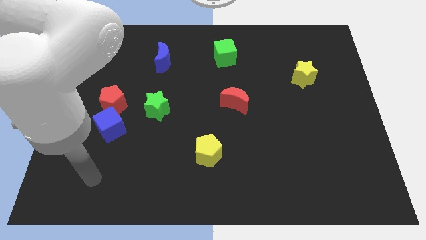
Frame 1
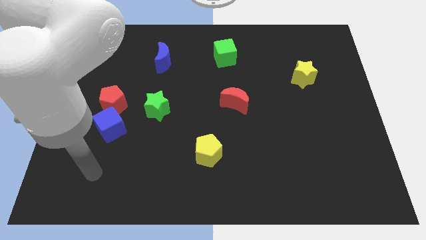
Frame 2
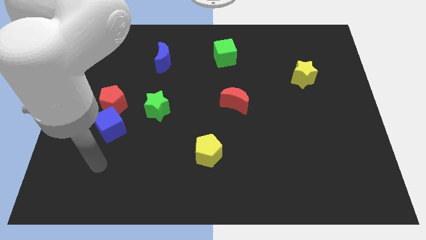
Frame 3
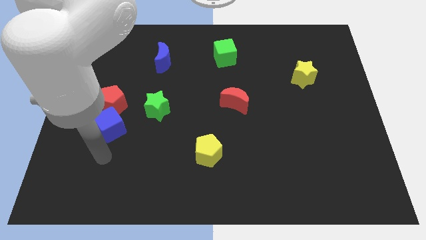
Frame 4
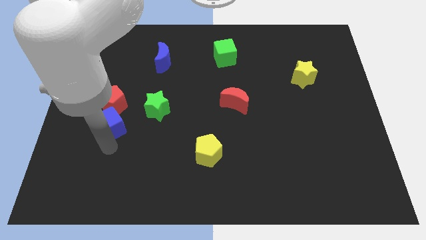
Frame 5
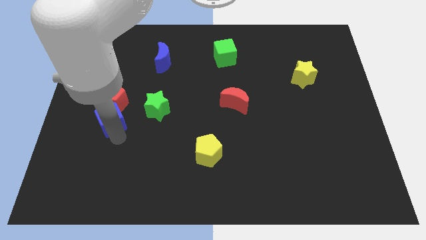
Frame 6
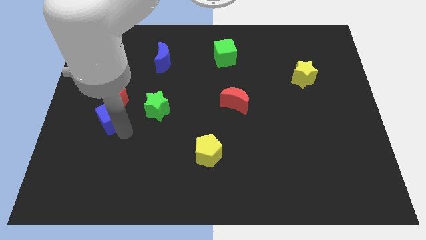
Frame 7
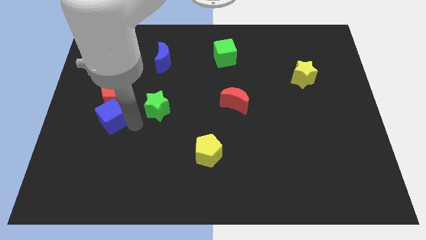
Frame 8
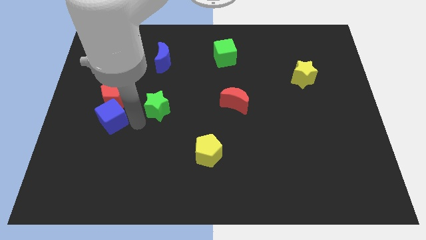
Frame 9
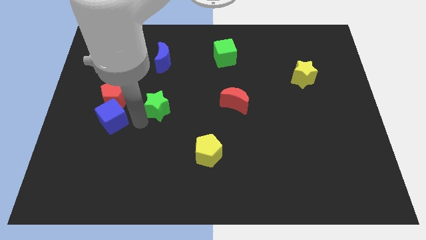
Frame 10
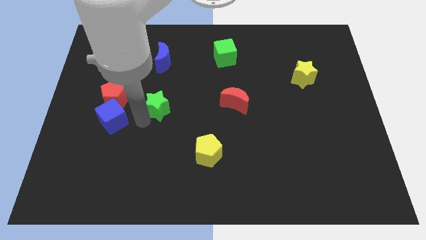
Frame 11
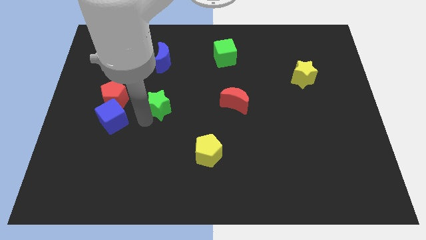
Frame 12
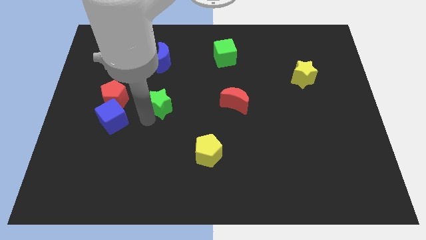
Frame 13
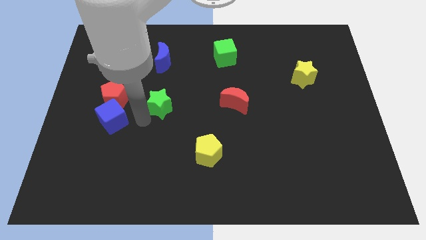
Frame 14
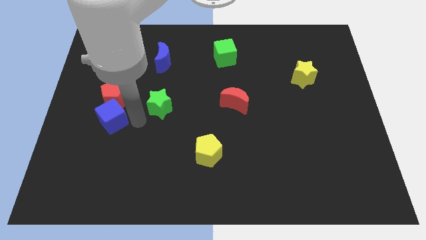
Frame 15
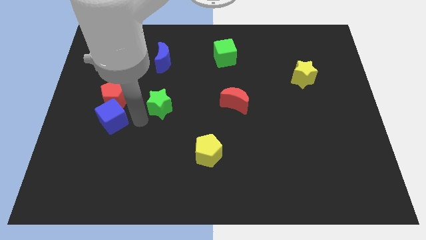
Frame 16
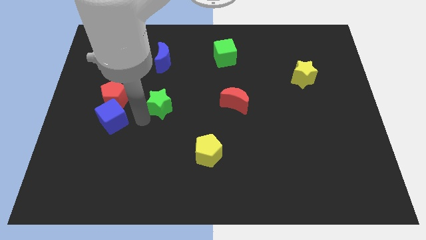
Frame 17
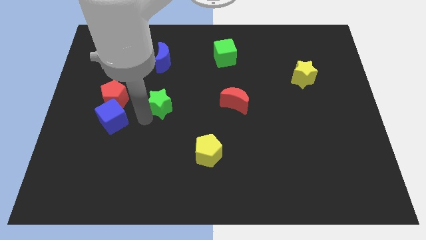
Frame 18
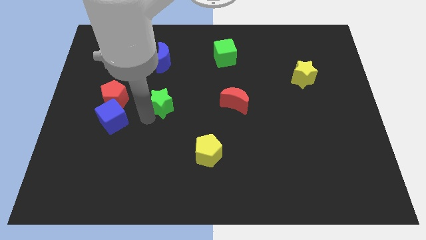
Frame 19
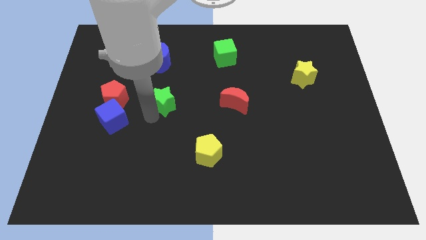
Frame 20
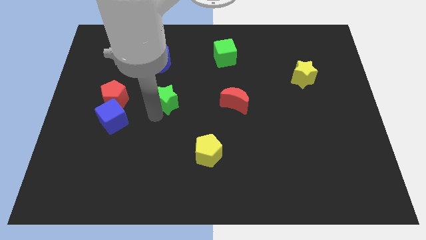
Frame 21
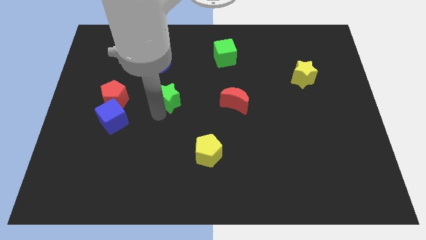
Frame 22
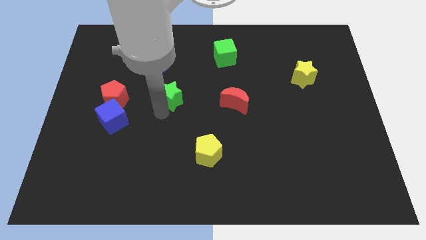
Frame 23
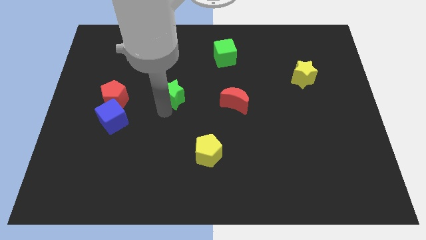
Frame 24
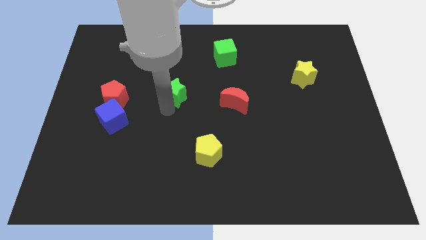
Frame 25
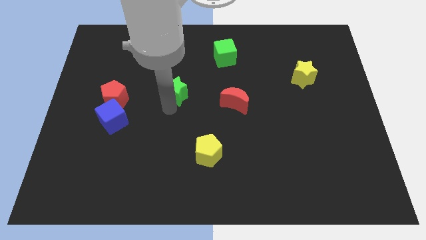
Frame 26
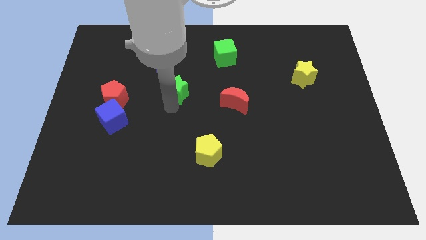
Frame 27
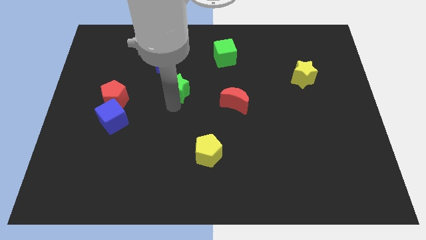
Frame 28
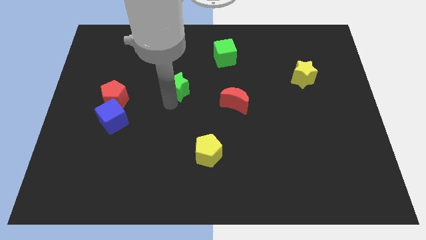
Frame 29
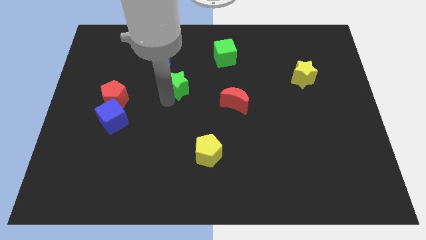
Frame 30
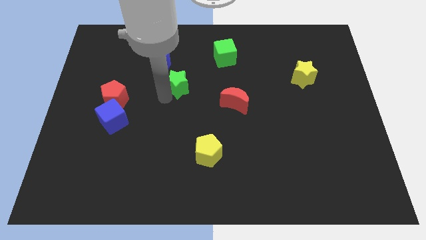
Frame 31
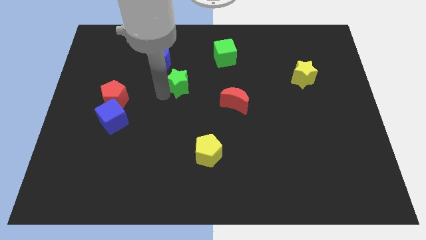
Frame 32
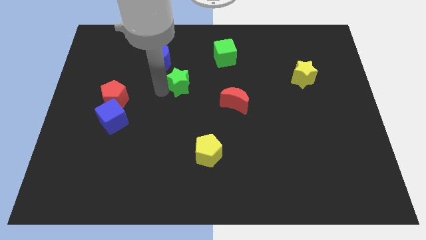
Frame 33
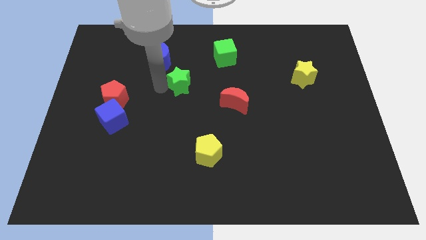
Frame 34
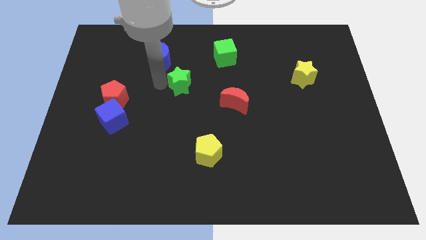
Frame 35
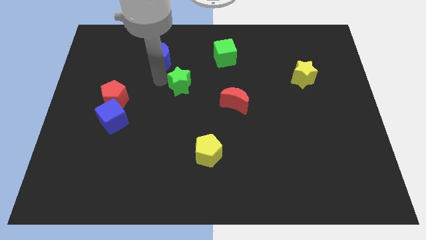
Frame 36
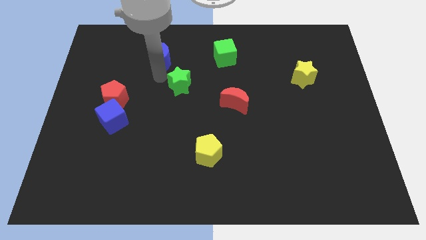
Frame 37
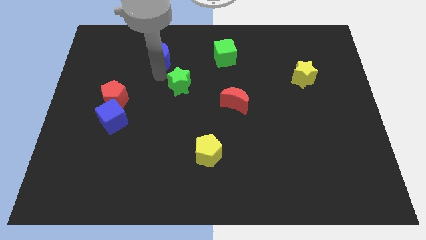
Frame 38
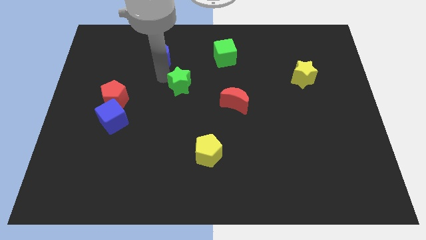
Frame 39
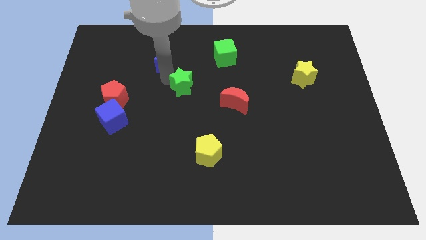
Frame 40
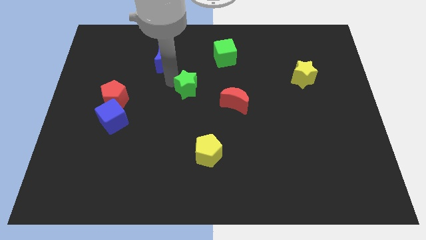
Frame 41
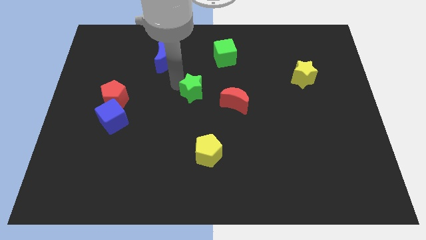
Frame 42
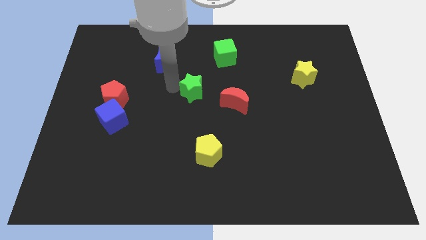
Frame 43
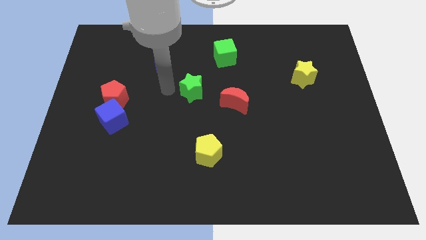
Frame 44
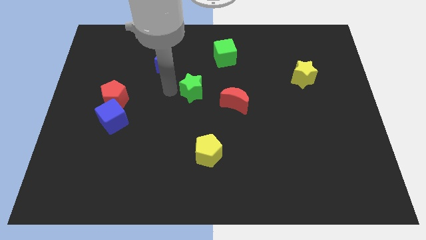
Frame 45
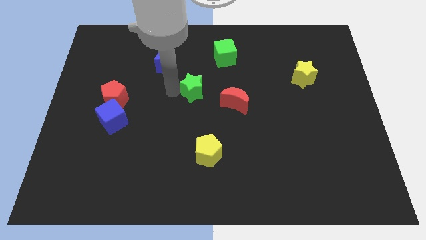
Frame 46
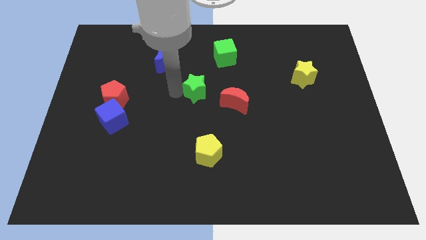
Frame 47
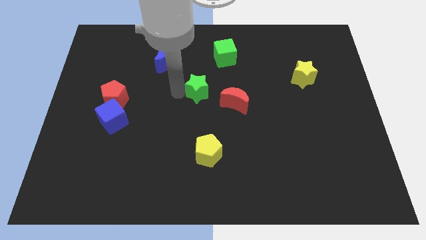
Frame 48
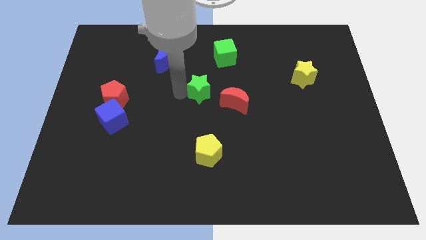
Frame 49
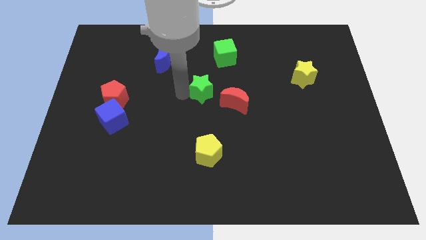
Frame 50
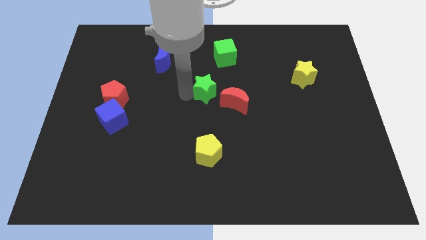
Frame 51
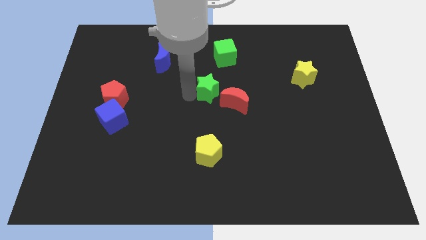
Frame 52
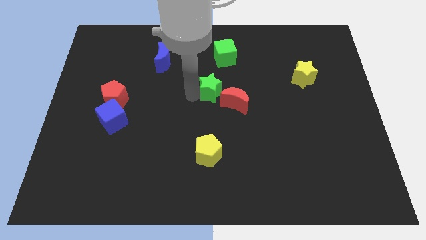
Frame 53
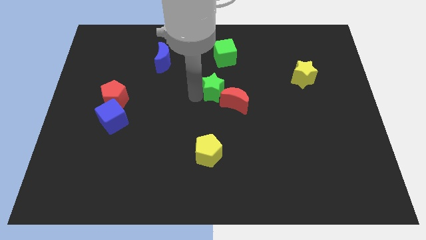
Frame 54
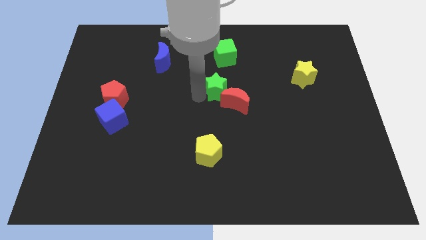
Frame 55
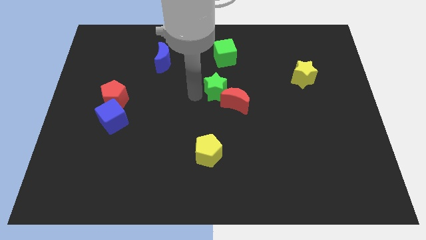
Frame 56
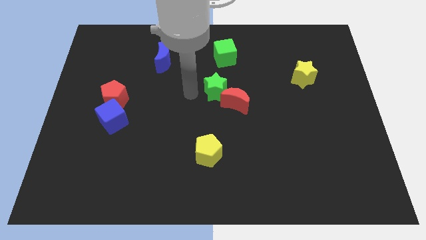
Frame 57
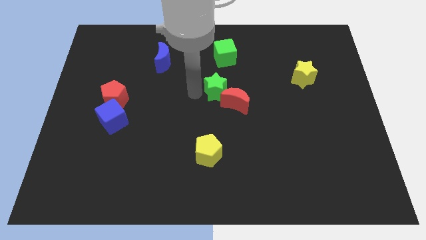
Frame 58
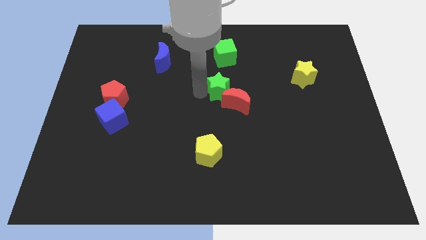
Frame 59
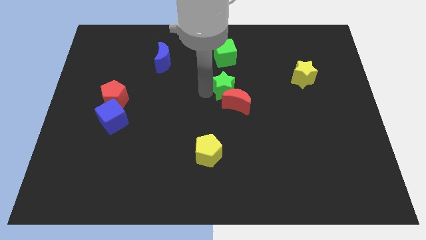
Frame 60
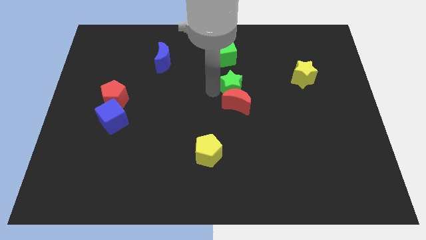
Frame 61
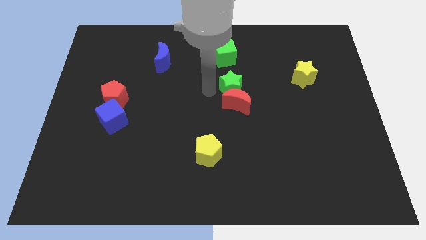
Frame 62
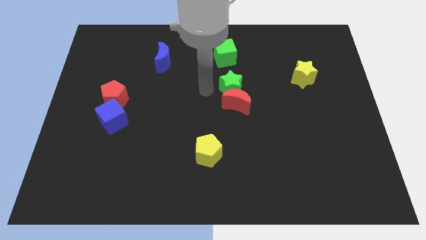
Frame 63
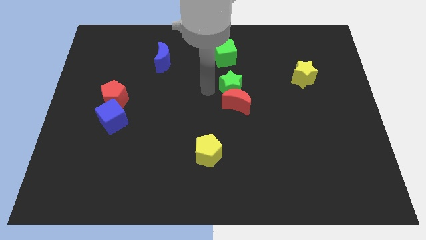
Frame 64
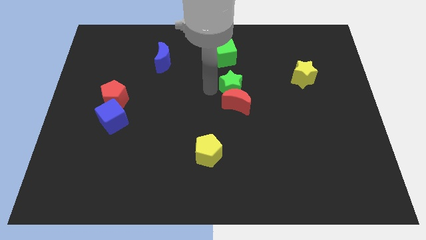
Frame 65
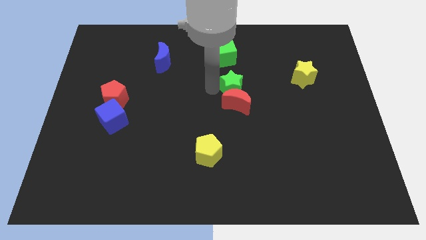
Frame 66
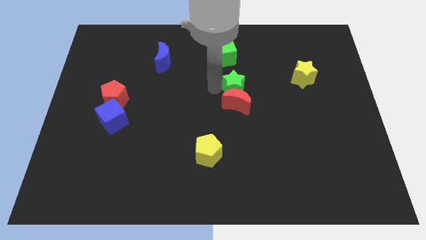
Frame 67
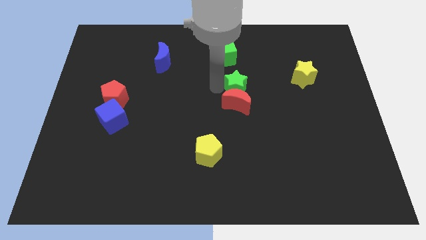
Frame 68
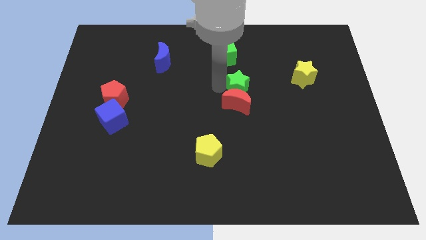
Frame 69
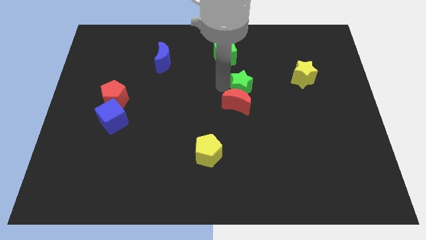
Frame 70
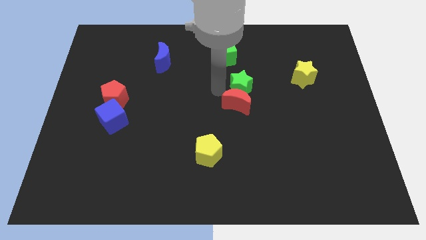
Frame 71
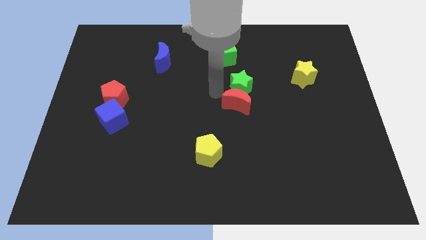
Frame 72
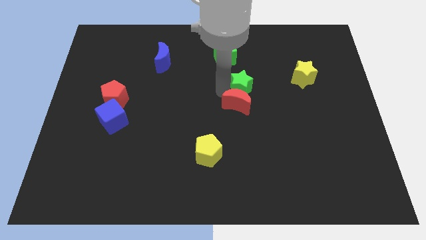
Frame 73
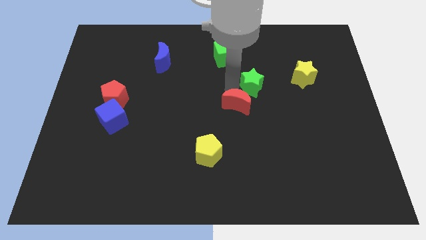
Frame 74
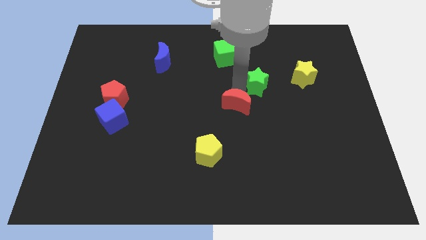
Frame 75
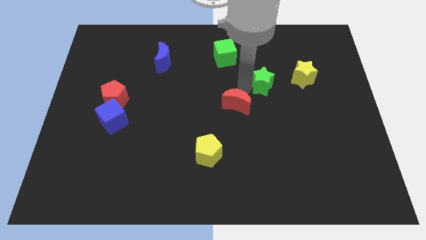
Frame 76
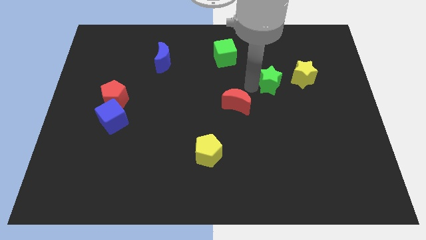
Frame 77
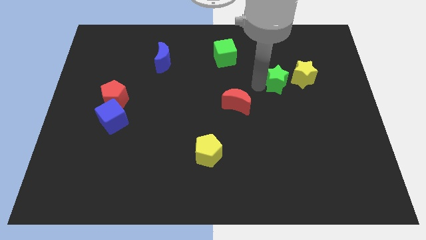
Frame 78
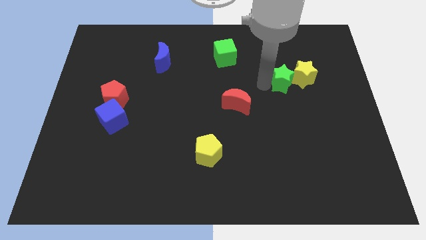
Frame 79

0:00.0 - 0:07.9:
move the green star close to the yellow star
